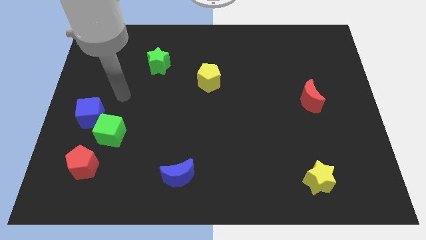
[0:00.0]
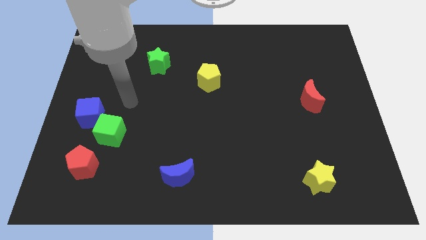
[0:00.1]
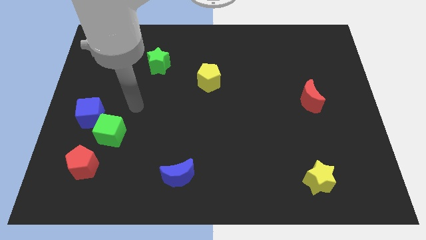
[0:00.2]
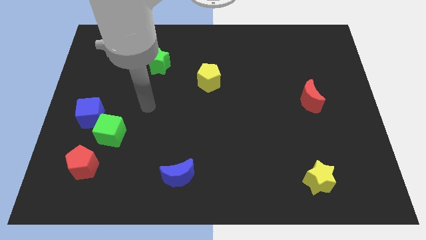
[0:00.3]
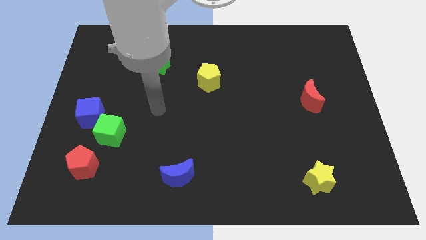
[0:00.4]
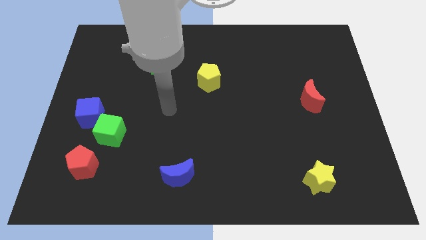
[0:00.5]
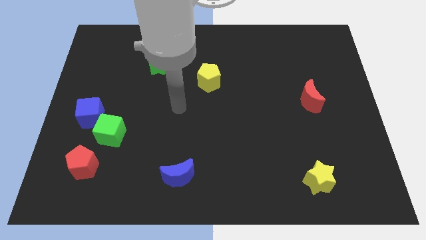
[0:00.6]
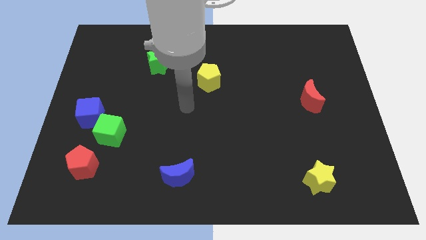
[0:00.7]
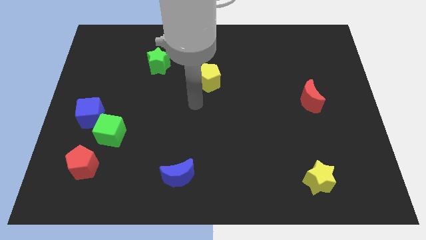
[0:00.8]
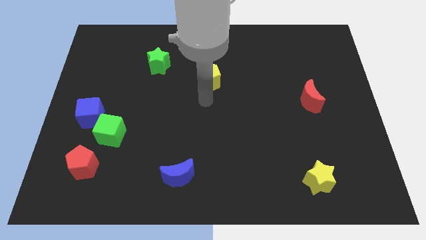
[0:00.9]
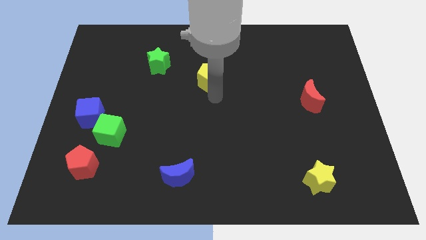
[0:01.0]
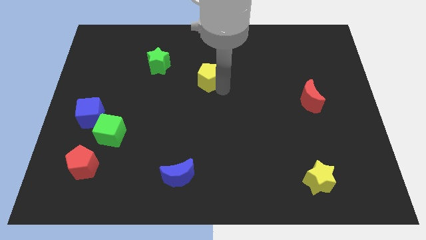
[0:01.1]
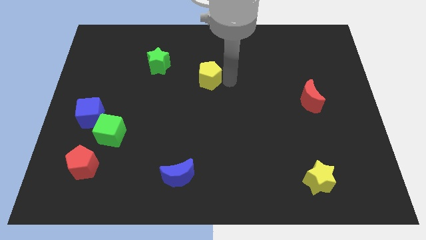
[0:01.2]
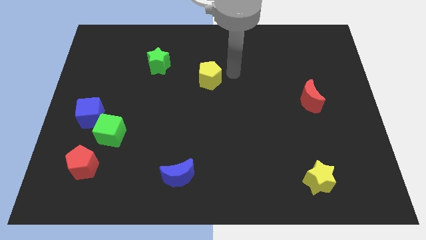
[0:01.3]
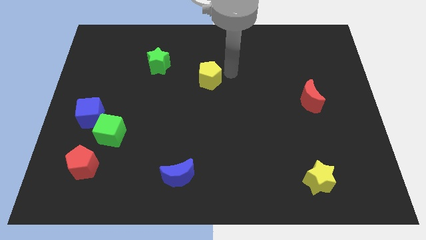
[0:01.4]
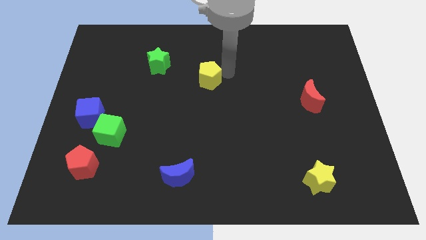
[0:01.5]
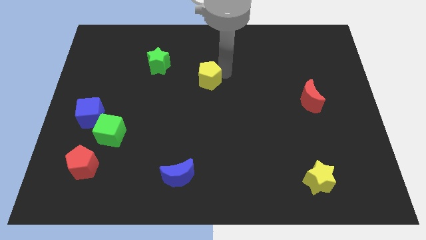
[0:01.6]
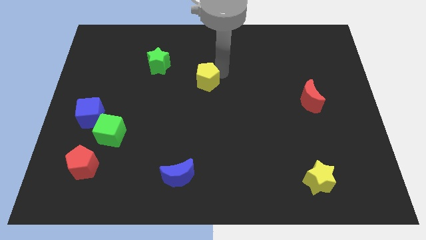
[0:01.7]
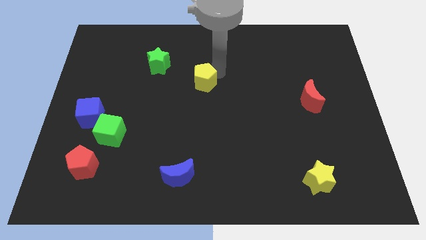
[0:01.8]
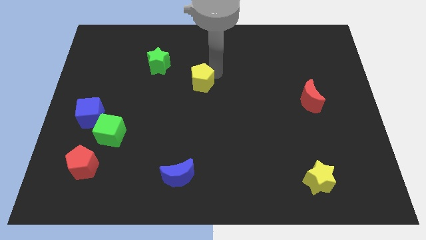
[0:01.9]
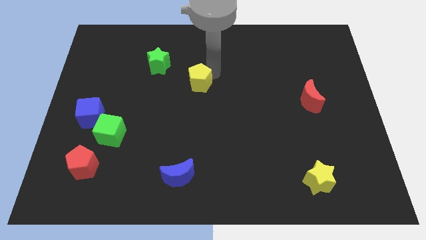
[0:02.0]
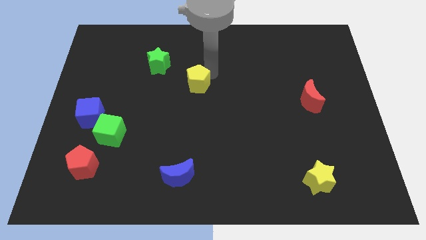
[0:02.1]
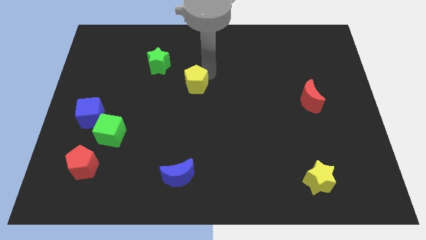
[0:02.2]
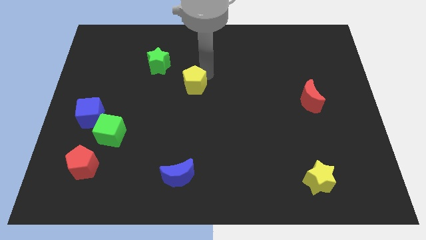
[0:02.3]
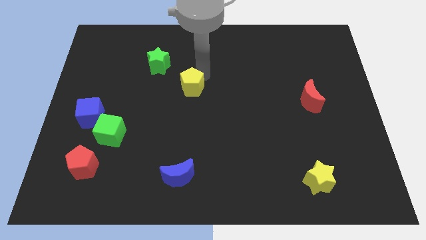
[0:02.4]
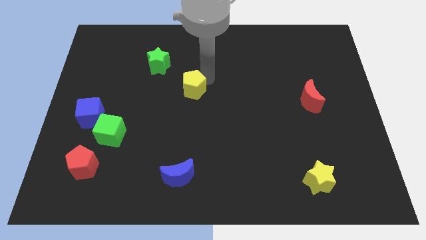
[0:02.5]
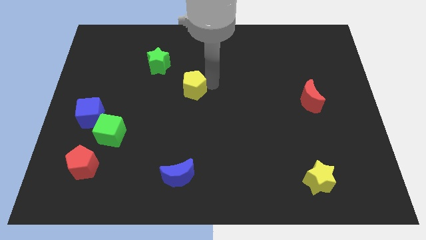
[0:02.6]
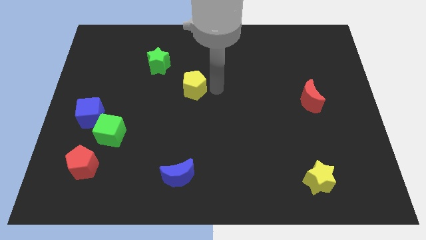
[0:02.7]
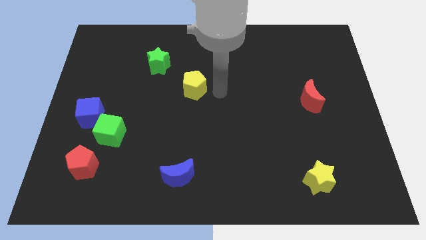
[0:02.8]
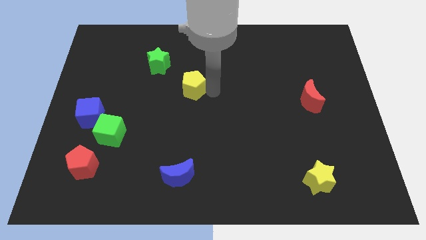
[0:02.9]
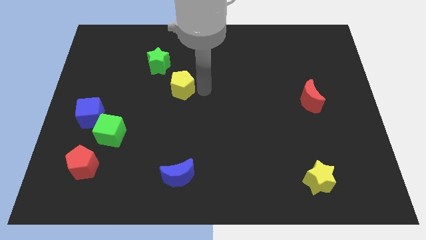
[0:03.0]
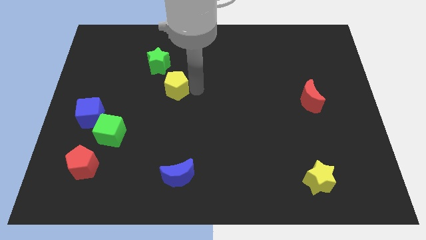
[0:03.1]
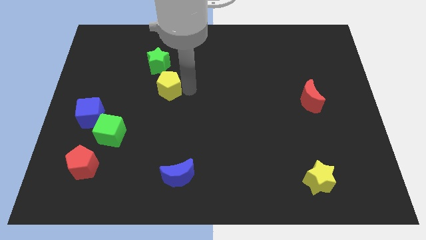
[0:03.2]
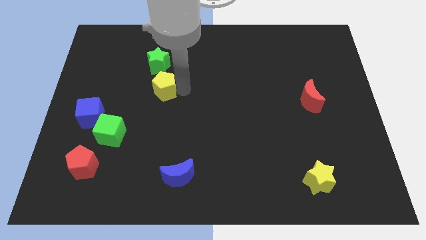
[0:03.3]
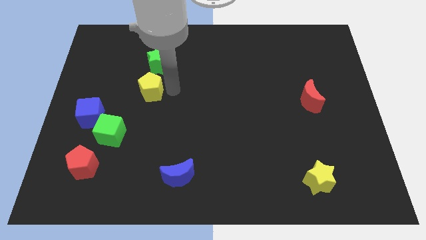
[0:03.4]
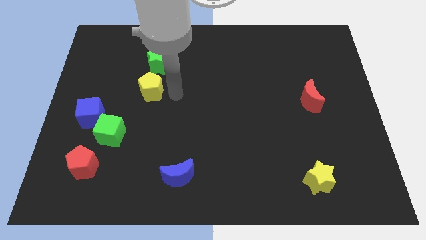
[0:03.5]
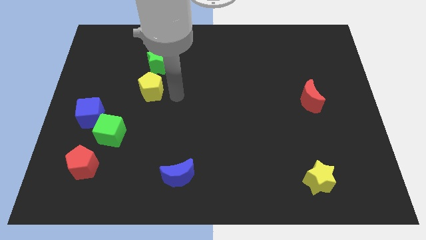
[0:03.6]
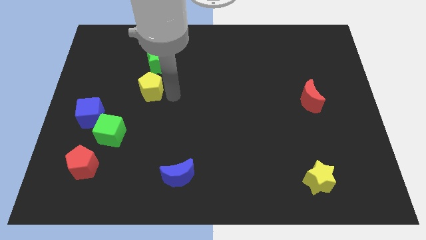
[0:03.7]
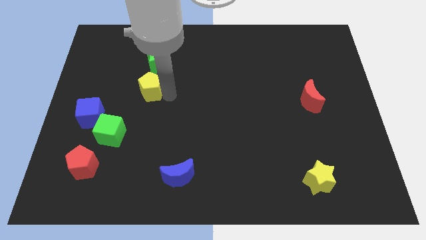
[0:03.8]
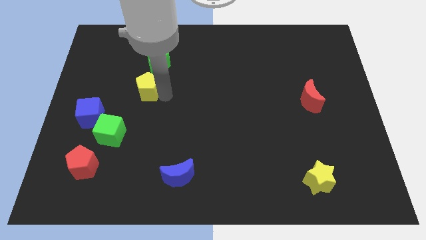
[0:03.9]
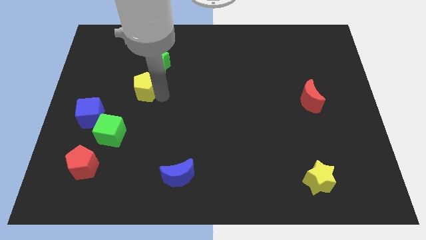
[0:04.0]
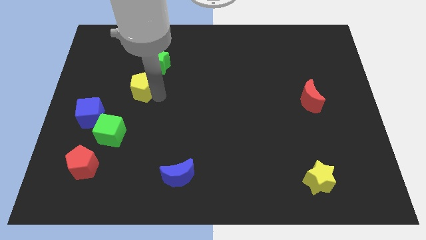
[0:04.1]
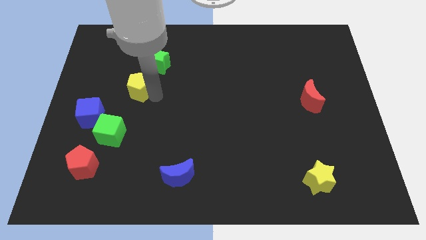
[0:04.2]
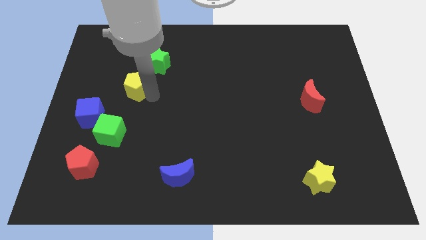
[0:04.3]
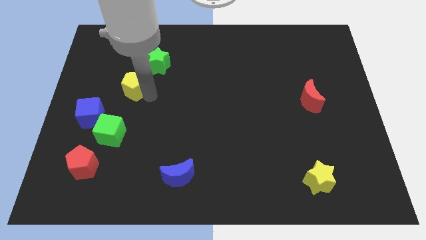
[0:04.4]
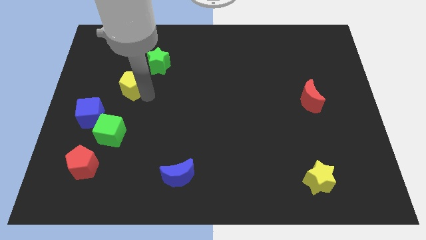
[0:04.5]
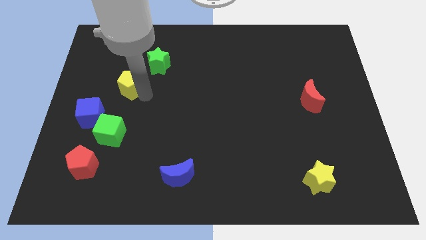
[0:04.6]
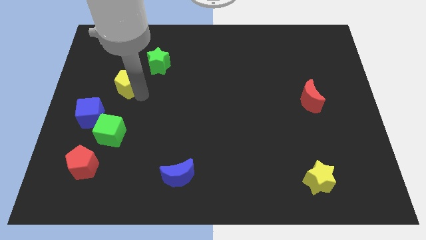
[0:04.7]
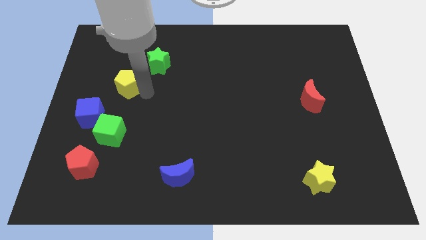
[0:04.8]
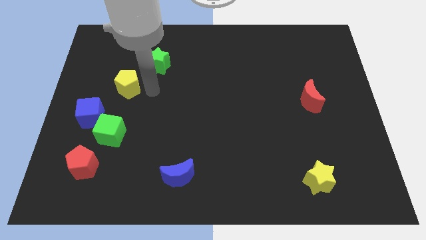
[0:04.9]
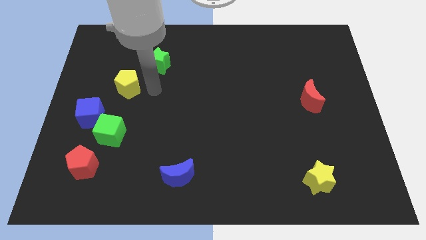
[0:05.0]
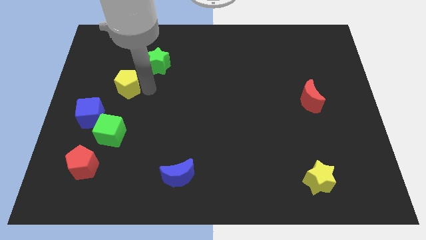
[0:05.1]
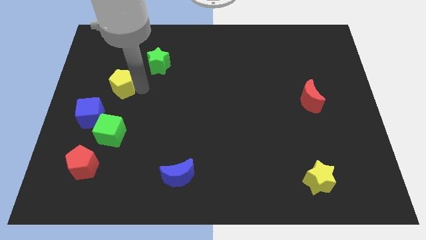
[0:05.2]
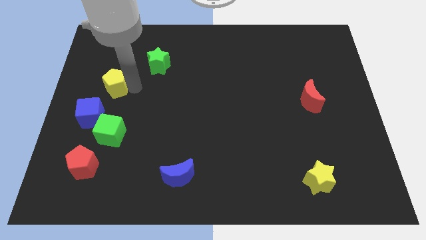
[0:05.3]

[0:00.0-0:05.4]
slide the yellow pentagon to the top side of the blue cube

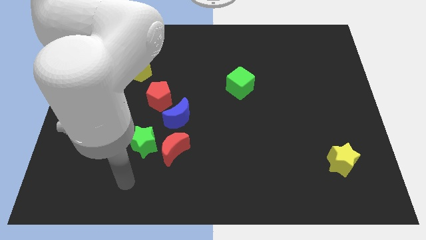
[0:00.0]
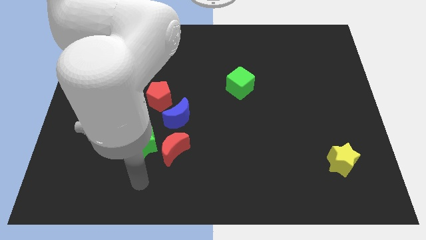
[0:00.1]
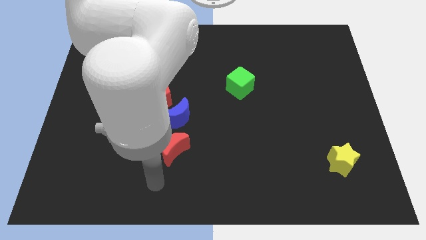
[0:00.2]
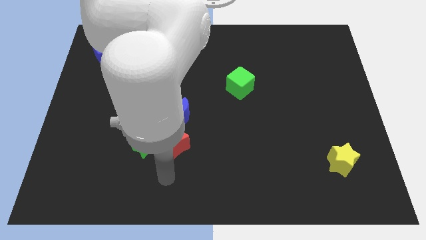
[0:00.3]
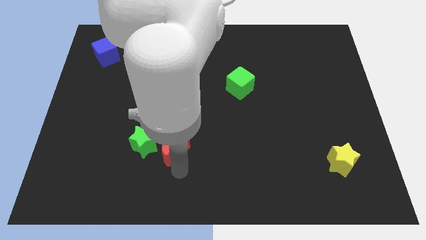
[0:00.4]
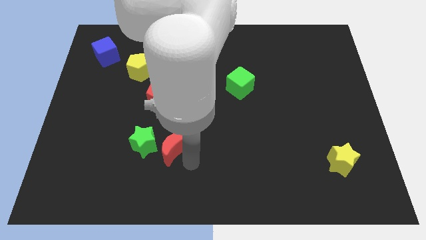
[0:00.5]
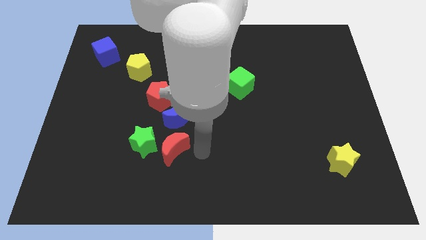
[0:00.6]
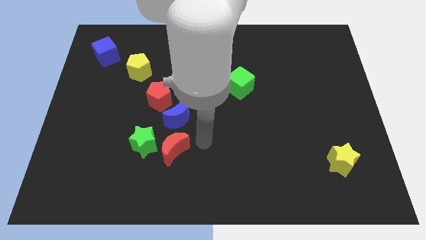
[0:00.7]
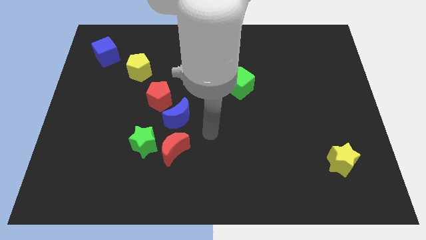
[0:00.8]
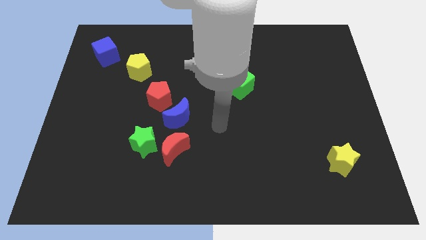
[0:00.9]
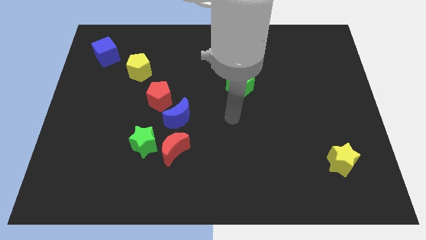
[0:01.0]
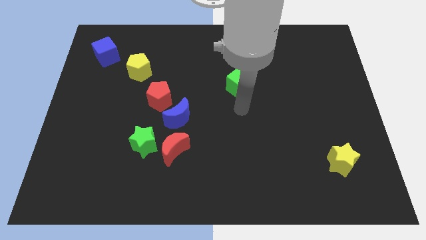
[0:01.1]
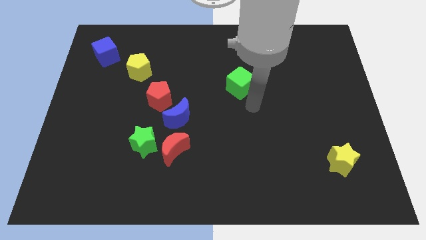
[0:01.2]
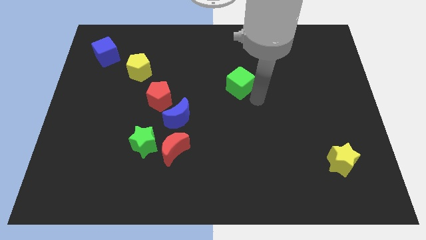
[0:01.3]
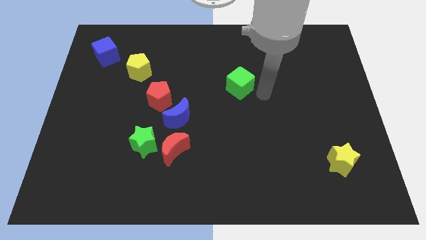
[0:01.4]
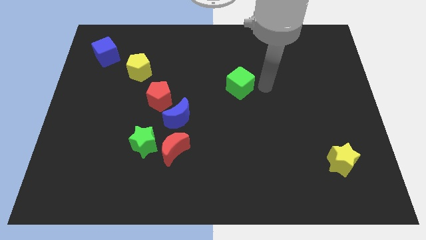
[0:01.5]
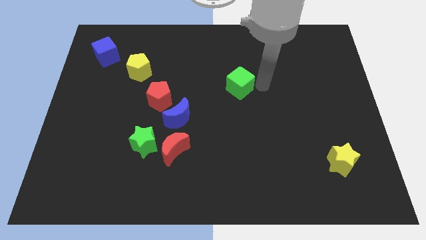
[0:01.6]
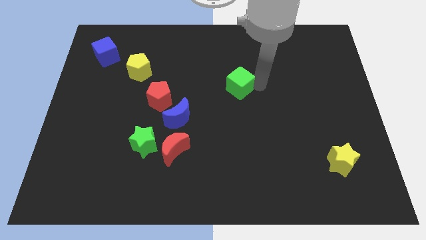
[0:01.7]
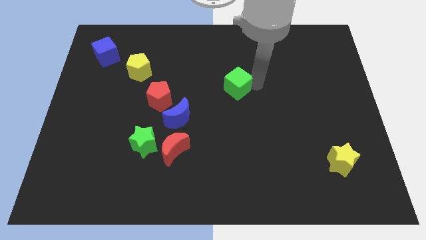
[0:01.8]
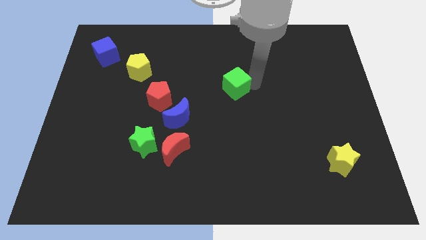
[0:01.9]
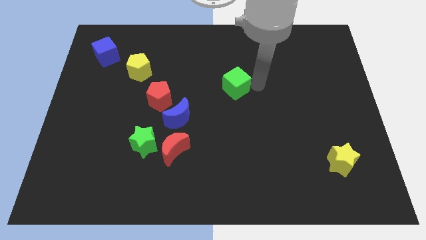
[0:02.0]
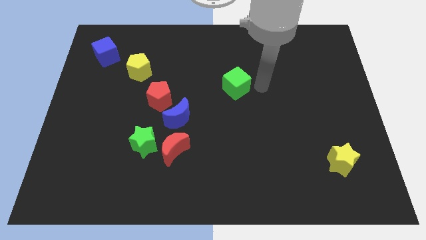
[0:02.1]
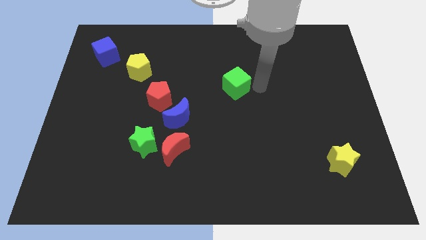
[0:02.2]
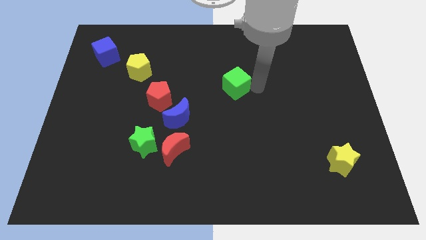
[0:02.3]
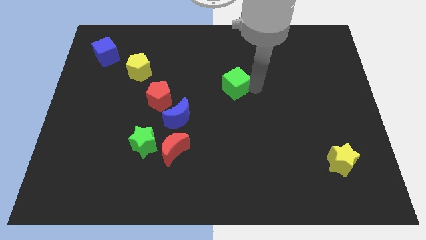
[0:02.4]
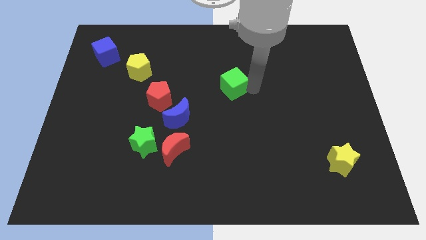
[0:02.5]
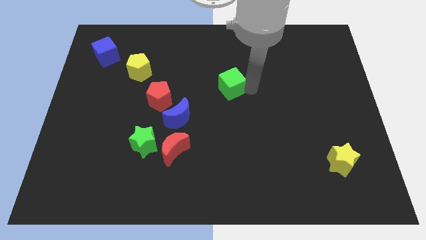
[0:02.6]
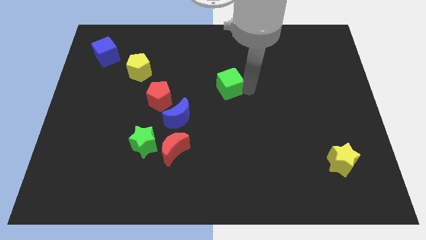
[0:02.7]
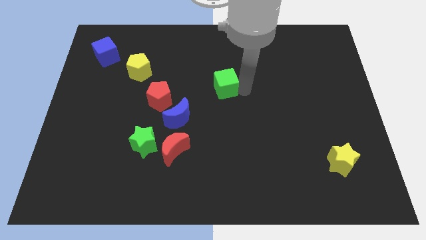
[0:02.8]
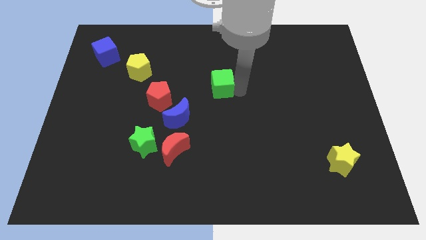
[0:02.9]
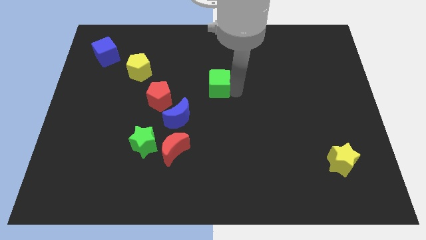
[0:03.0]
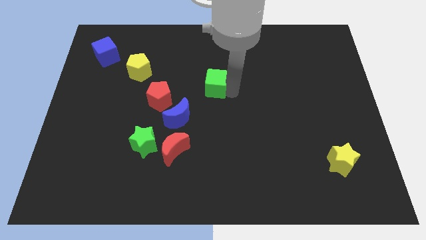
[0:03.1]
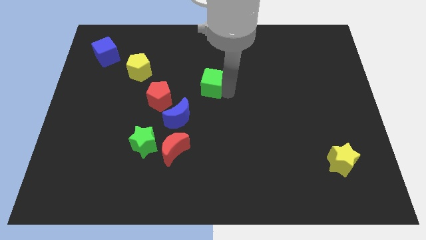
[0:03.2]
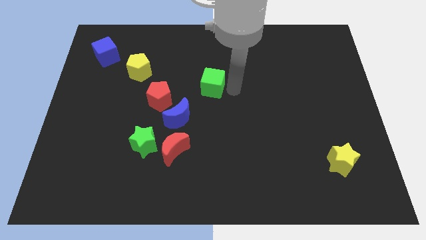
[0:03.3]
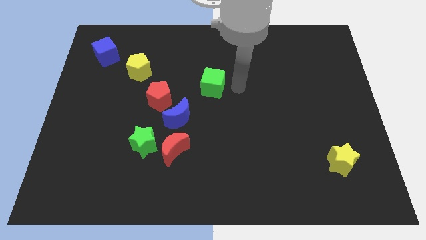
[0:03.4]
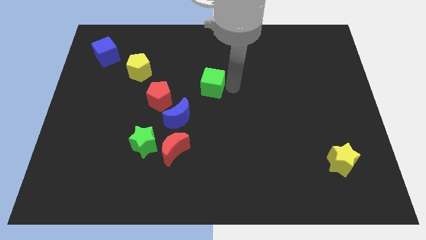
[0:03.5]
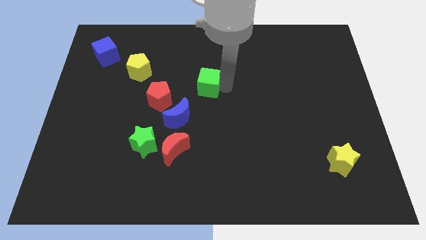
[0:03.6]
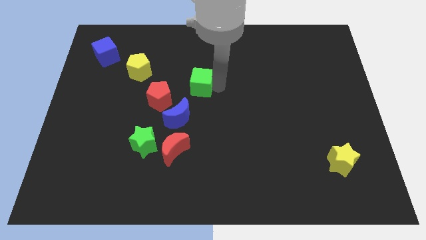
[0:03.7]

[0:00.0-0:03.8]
slide the green cube above the blue moon
